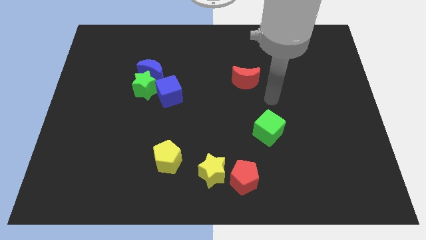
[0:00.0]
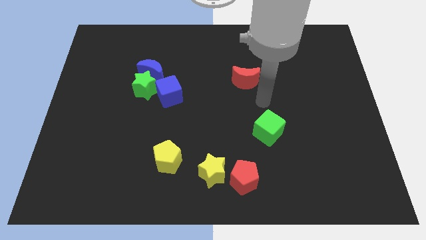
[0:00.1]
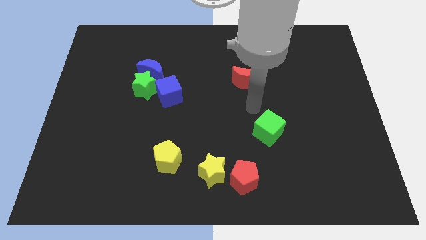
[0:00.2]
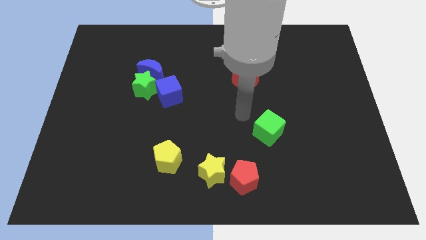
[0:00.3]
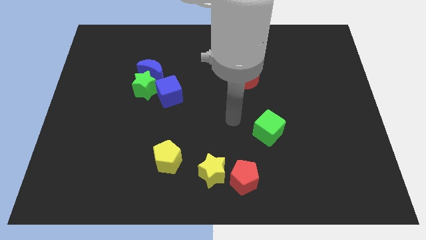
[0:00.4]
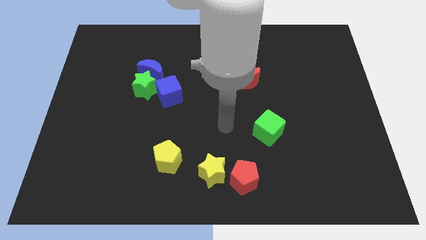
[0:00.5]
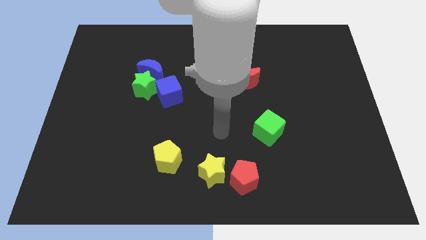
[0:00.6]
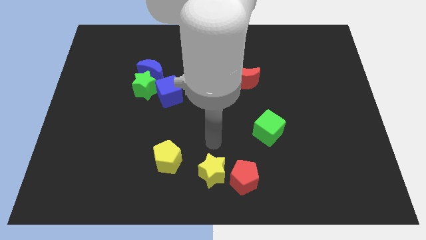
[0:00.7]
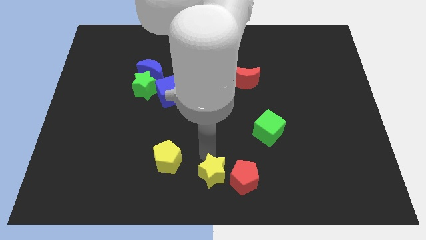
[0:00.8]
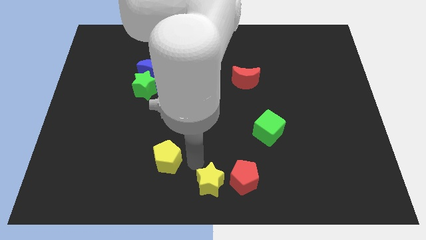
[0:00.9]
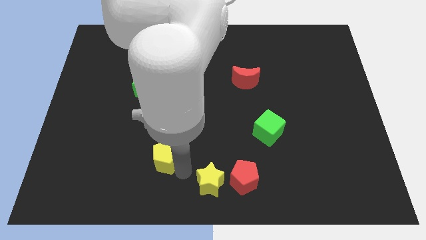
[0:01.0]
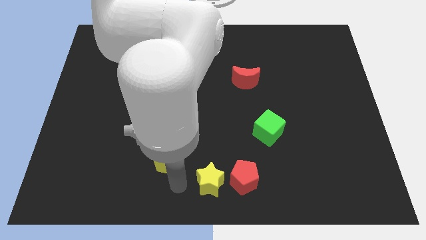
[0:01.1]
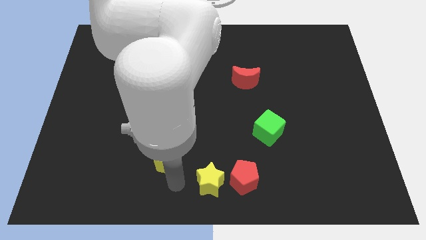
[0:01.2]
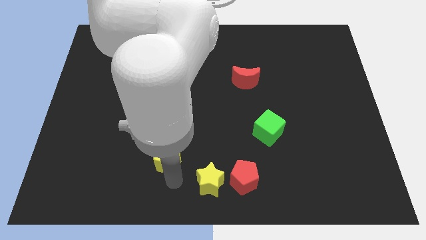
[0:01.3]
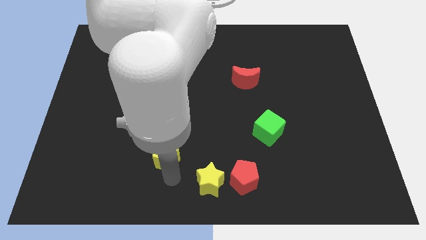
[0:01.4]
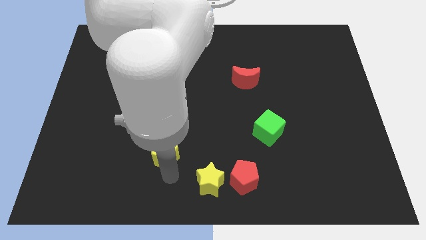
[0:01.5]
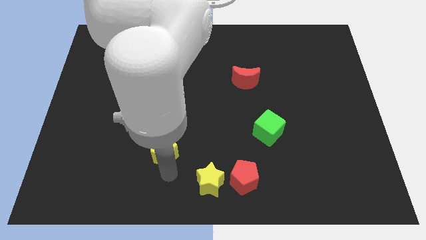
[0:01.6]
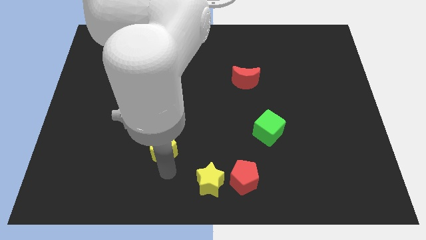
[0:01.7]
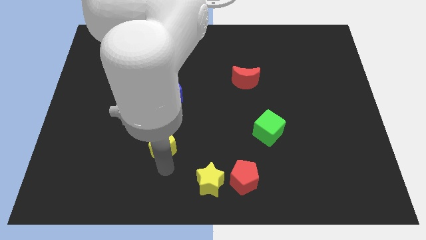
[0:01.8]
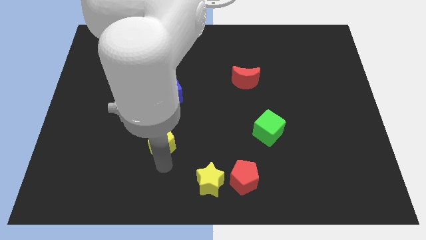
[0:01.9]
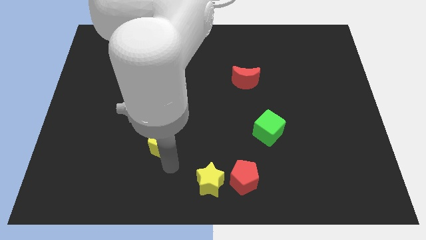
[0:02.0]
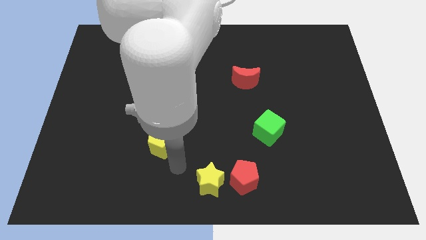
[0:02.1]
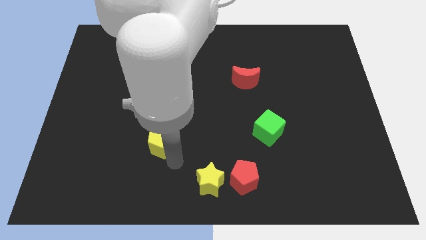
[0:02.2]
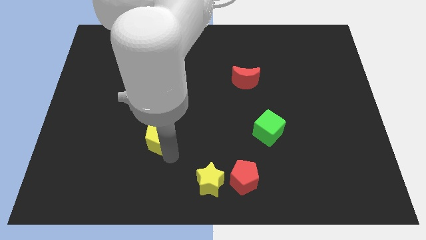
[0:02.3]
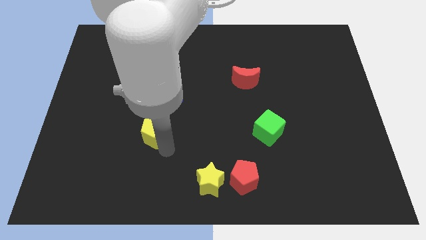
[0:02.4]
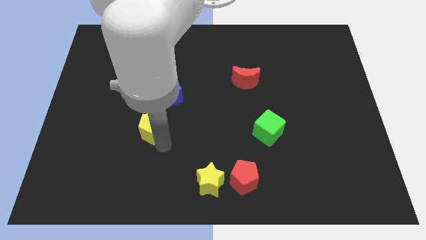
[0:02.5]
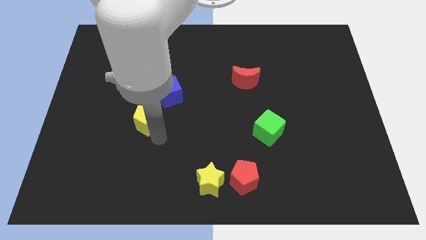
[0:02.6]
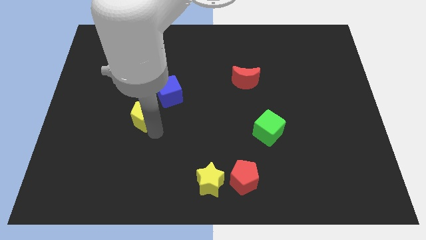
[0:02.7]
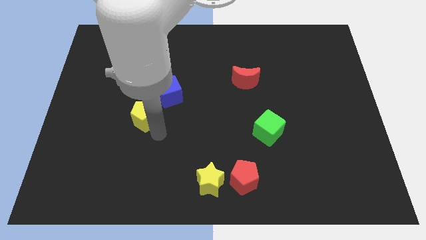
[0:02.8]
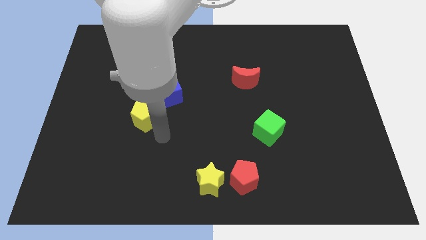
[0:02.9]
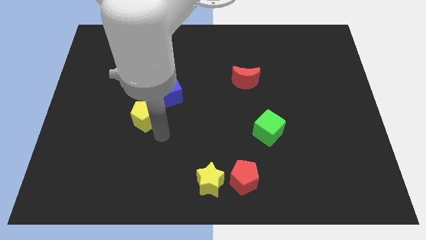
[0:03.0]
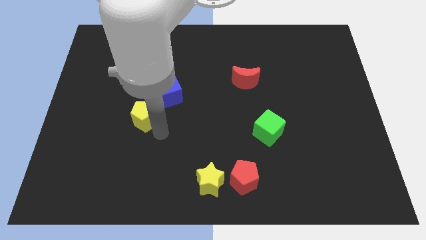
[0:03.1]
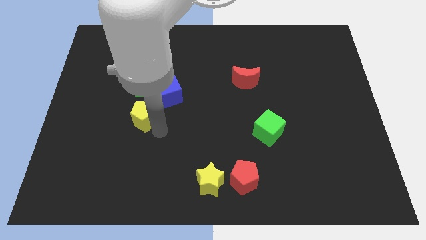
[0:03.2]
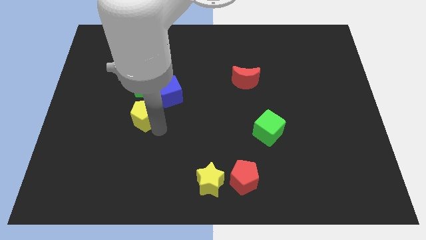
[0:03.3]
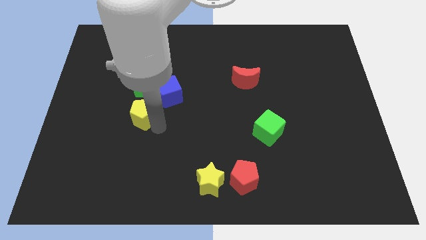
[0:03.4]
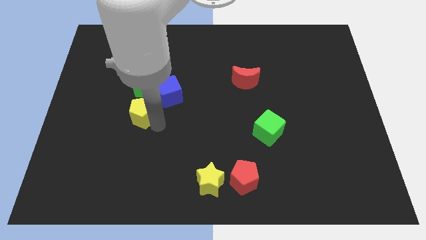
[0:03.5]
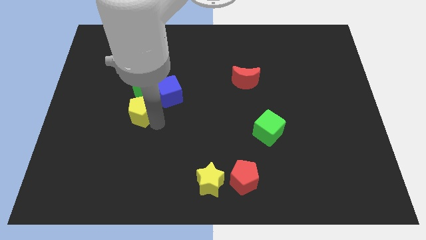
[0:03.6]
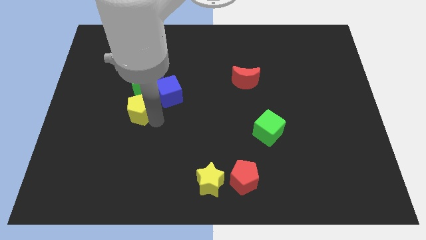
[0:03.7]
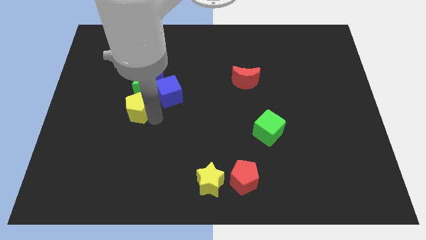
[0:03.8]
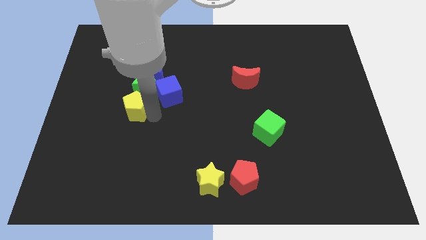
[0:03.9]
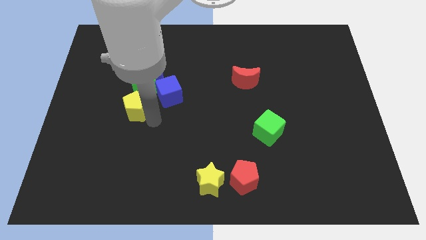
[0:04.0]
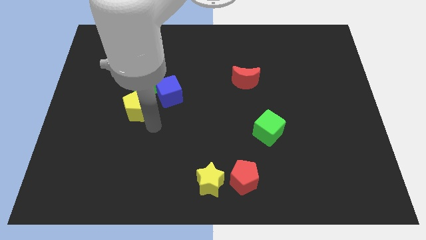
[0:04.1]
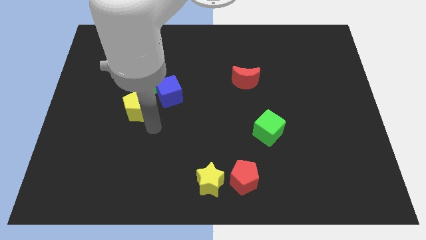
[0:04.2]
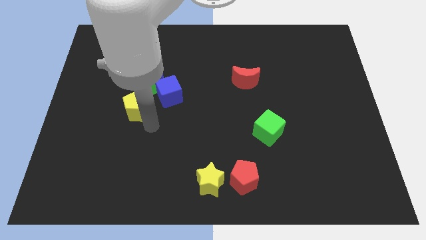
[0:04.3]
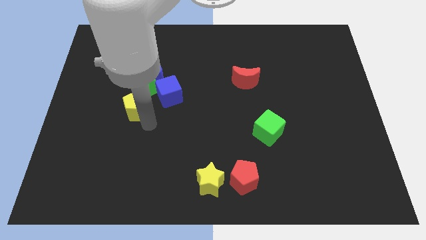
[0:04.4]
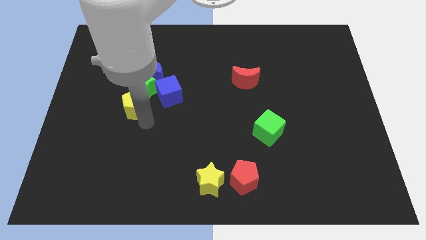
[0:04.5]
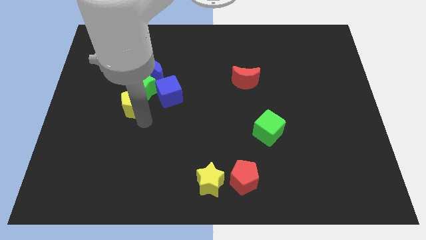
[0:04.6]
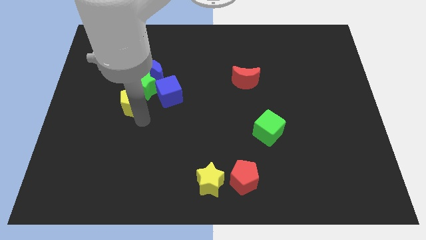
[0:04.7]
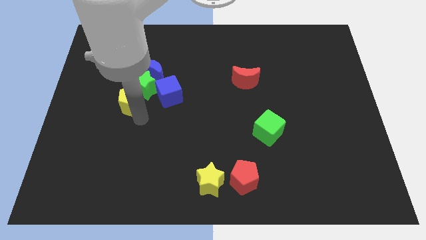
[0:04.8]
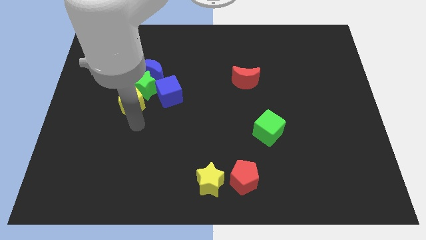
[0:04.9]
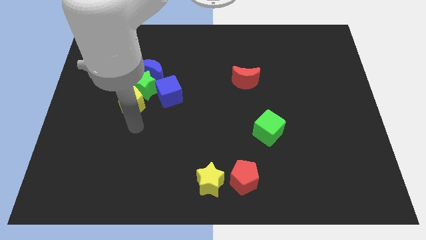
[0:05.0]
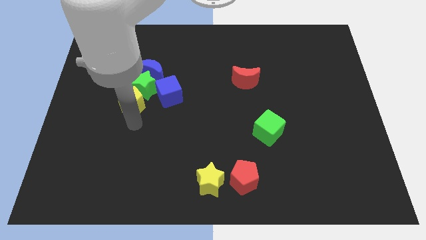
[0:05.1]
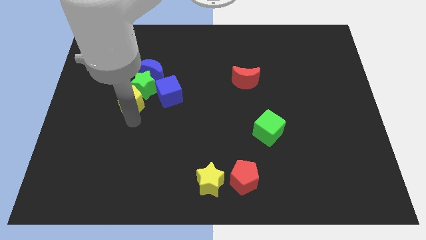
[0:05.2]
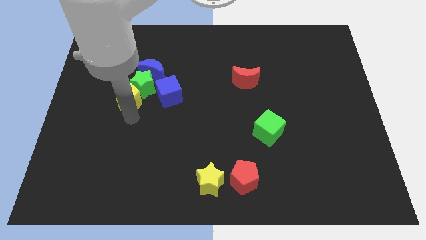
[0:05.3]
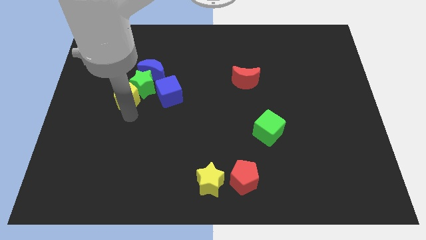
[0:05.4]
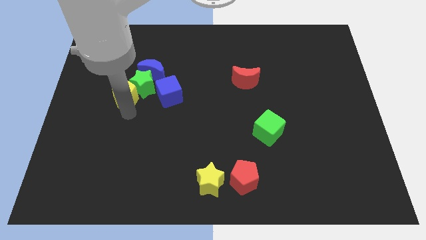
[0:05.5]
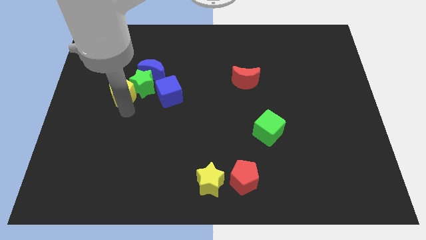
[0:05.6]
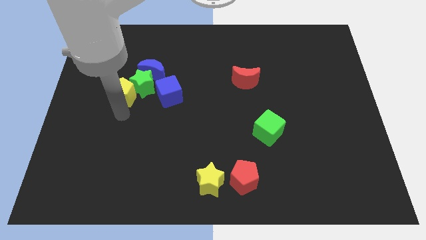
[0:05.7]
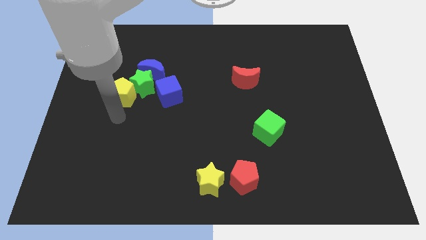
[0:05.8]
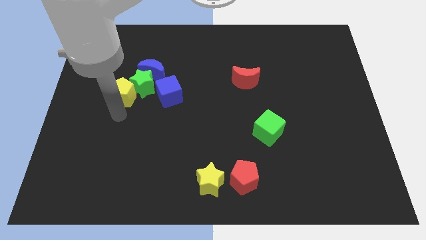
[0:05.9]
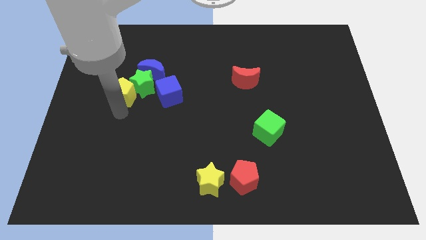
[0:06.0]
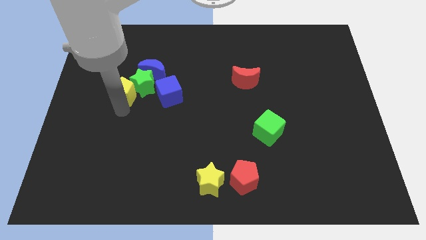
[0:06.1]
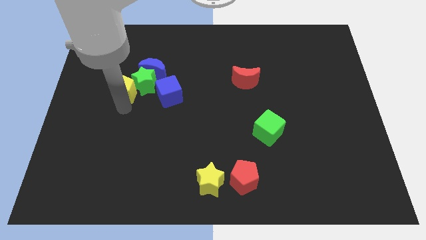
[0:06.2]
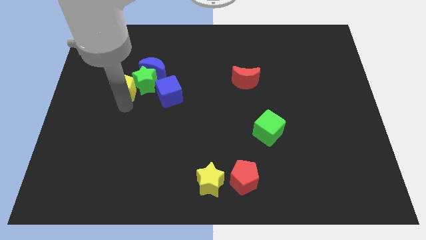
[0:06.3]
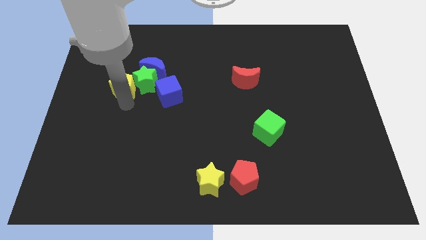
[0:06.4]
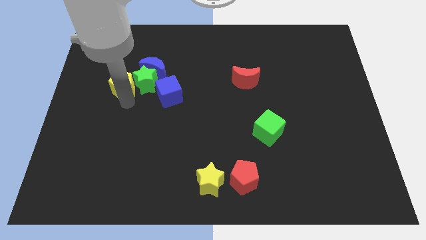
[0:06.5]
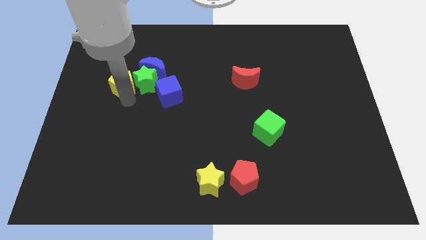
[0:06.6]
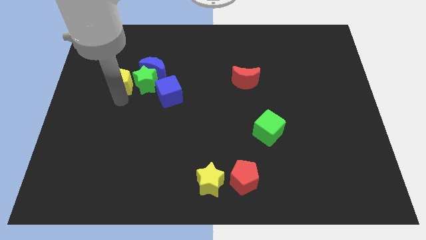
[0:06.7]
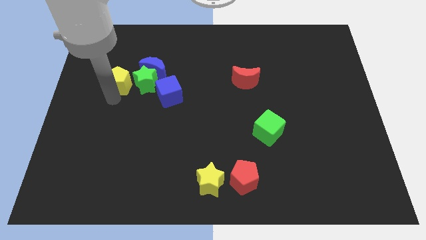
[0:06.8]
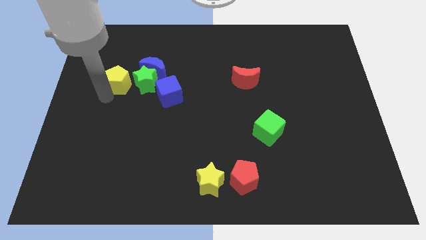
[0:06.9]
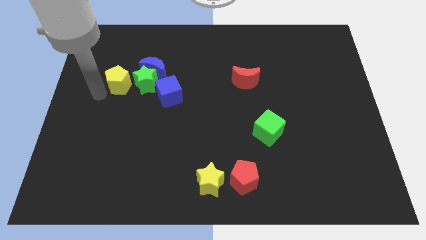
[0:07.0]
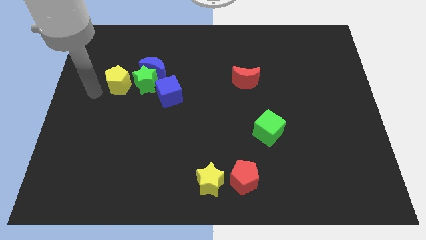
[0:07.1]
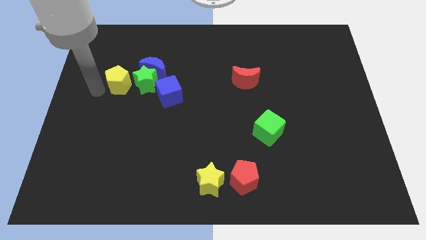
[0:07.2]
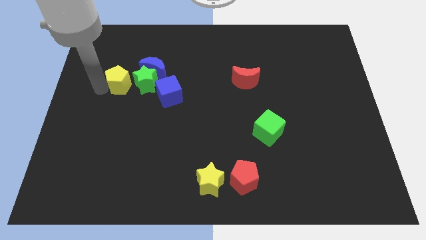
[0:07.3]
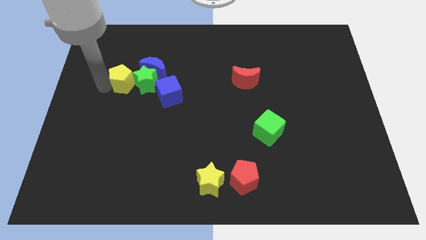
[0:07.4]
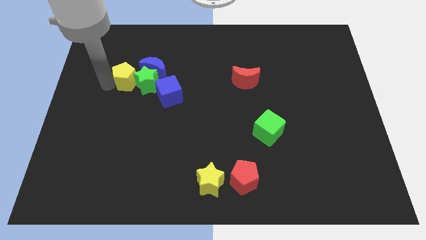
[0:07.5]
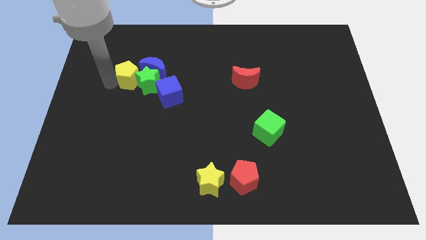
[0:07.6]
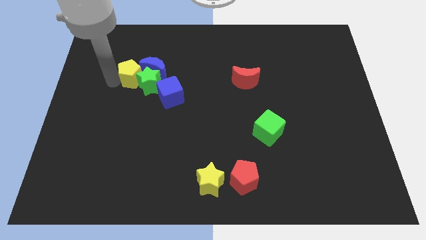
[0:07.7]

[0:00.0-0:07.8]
move the yellow pentagon close to the blue moon
